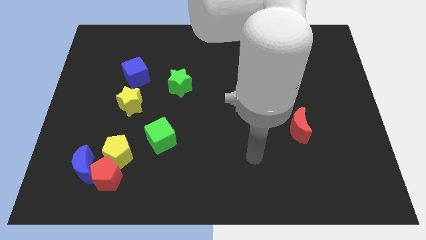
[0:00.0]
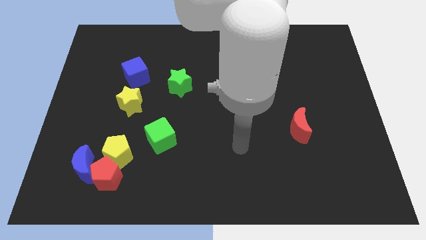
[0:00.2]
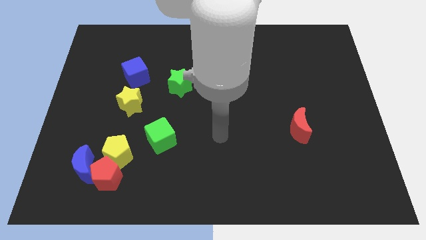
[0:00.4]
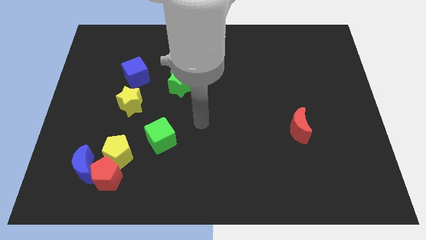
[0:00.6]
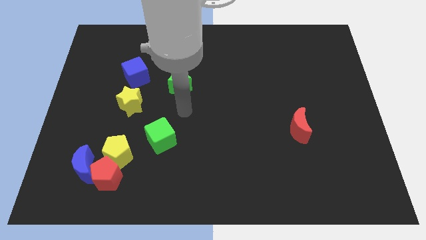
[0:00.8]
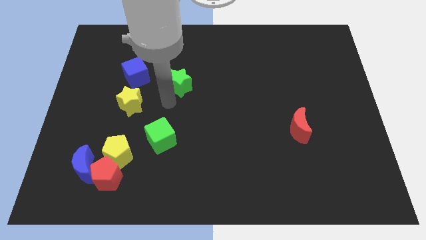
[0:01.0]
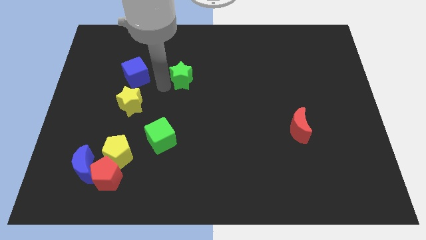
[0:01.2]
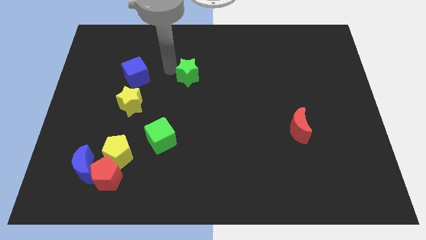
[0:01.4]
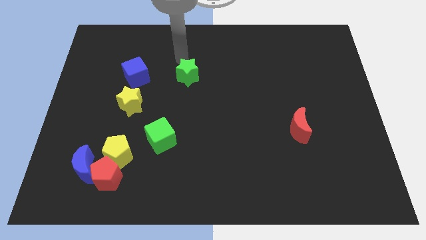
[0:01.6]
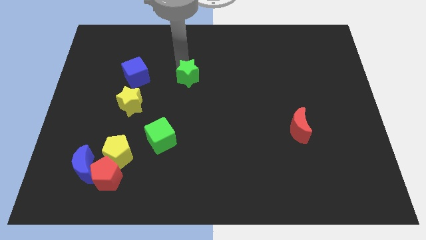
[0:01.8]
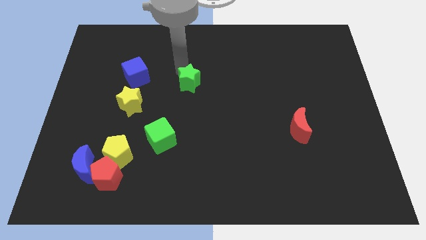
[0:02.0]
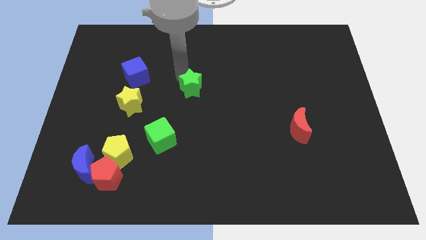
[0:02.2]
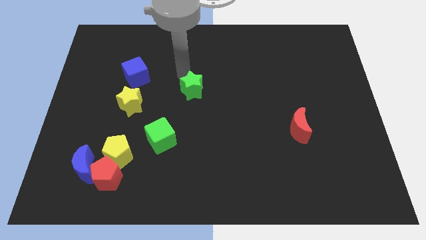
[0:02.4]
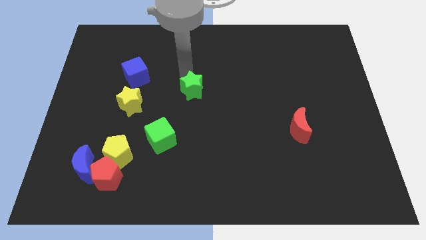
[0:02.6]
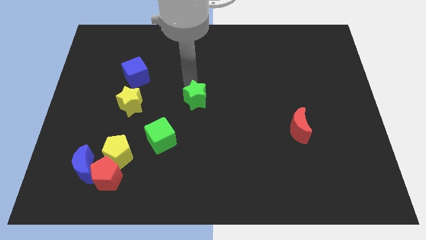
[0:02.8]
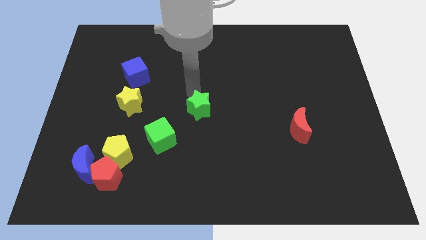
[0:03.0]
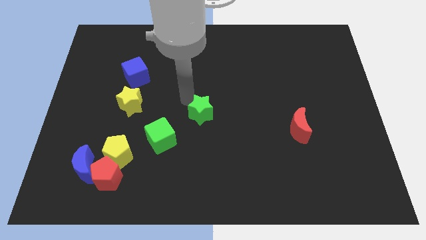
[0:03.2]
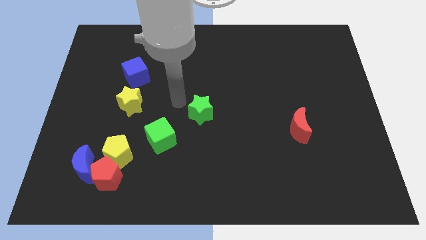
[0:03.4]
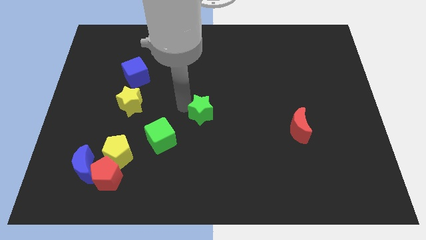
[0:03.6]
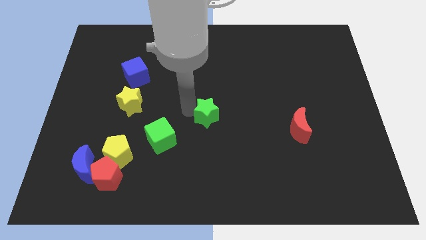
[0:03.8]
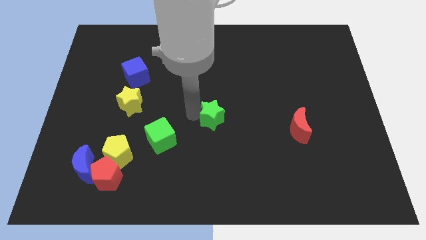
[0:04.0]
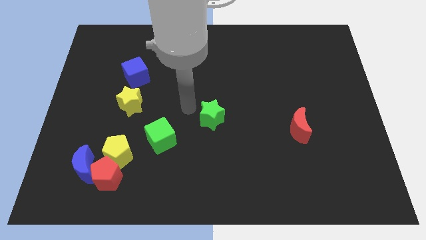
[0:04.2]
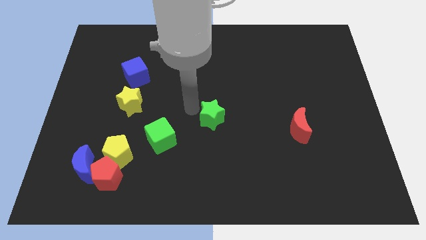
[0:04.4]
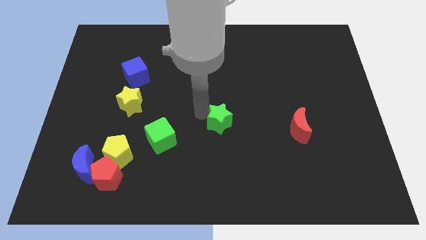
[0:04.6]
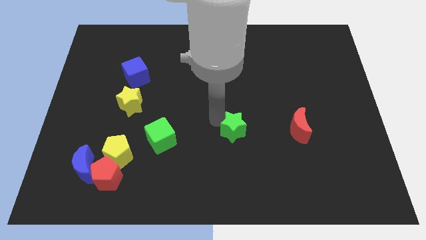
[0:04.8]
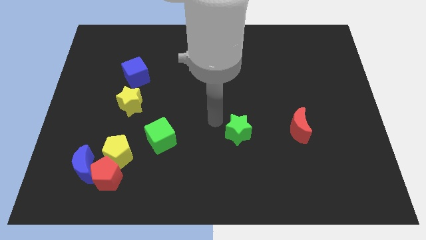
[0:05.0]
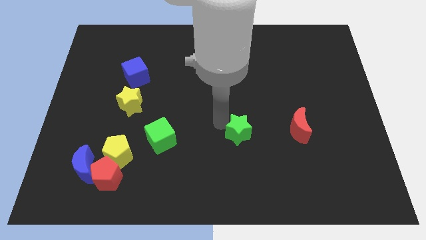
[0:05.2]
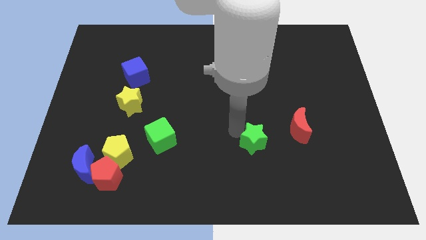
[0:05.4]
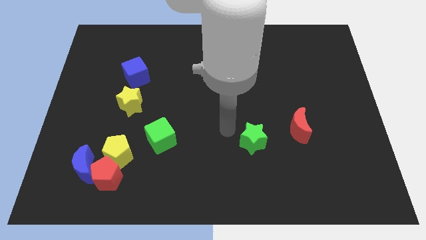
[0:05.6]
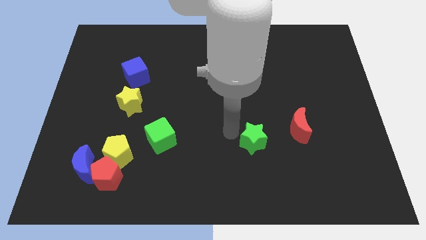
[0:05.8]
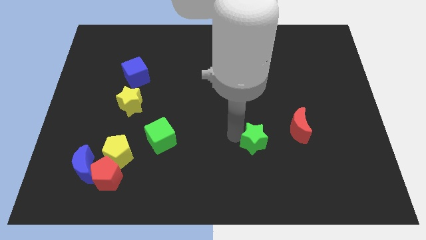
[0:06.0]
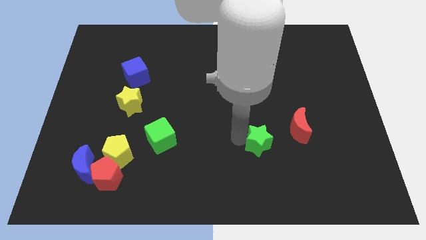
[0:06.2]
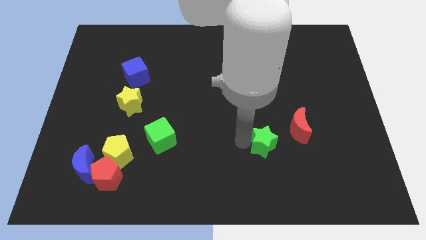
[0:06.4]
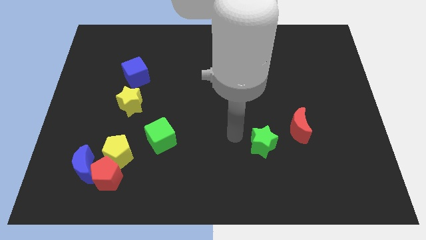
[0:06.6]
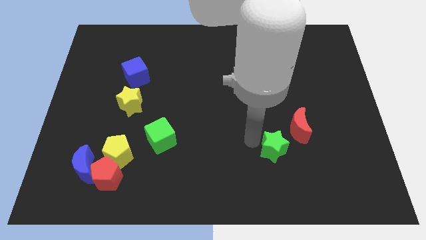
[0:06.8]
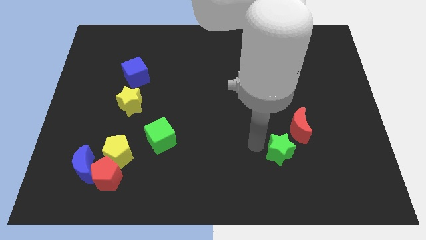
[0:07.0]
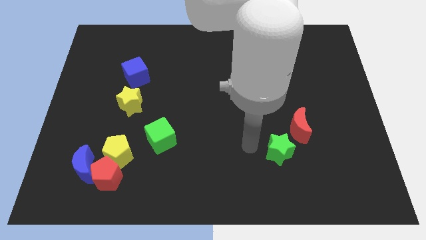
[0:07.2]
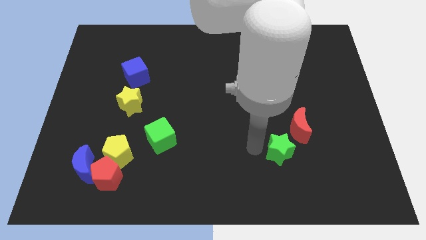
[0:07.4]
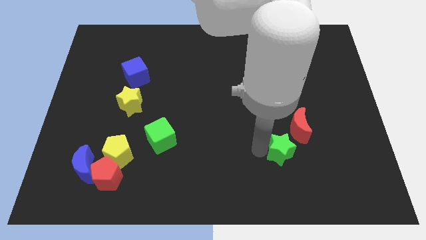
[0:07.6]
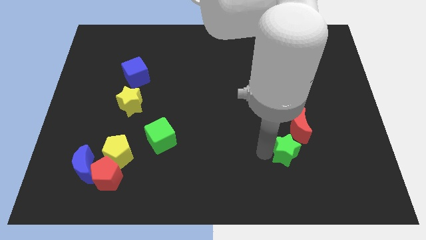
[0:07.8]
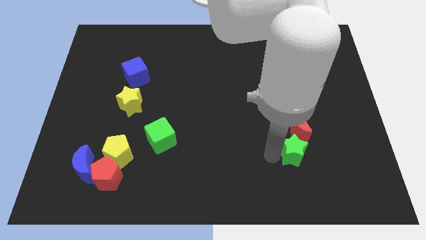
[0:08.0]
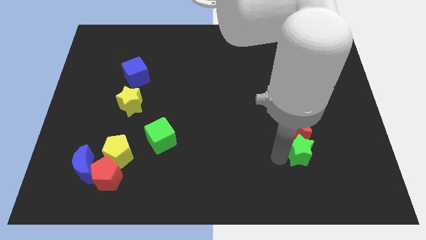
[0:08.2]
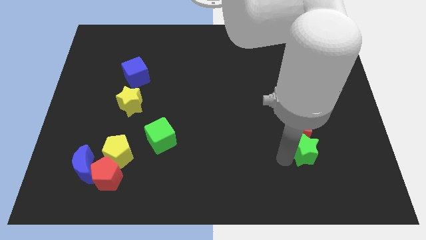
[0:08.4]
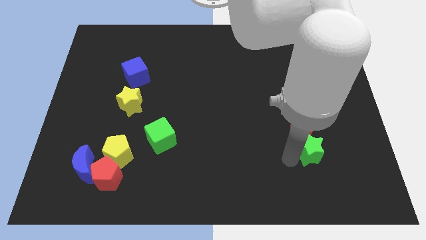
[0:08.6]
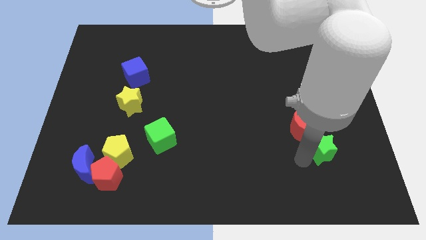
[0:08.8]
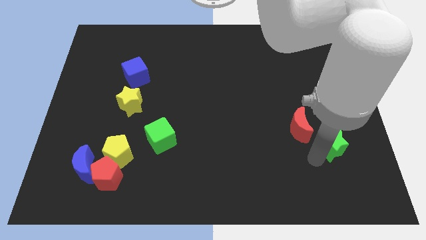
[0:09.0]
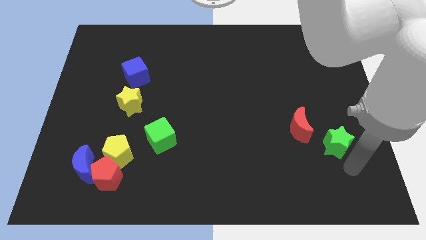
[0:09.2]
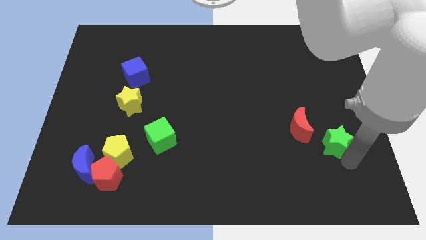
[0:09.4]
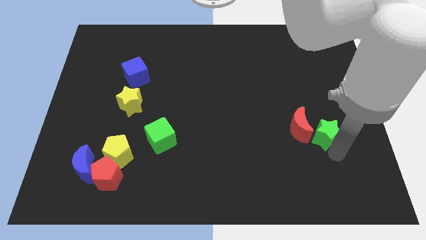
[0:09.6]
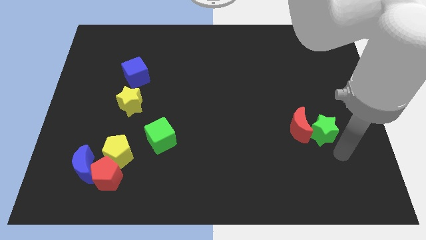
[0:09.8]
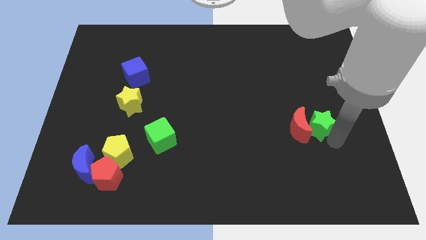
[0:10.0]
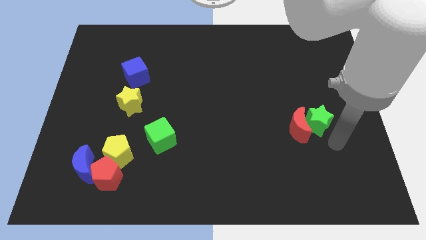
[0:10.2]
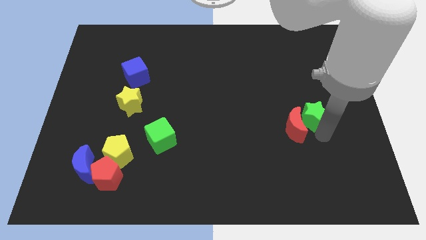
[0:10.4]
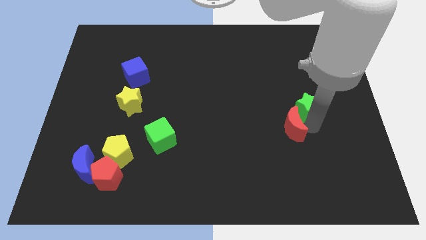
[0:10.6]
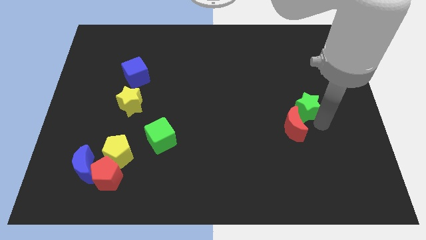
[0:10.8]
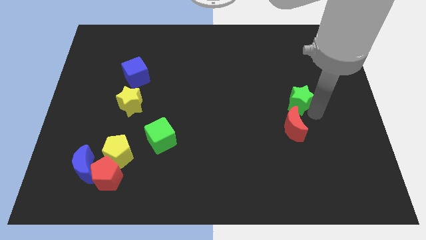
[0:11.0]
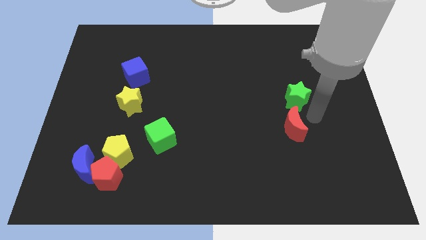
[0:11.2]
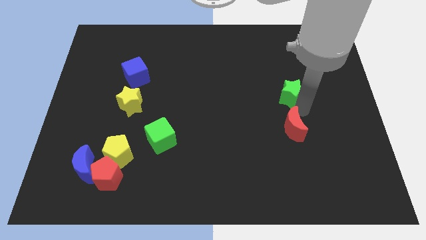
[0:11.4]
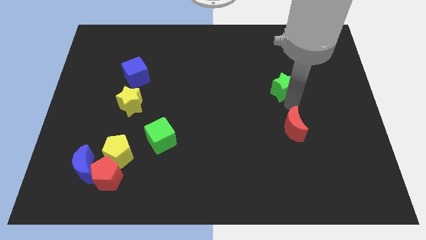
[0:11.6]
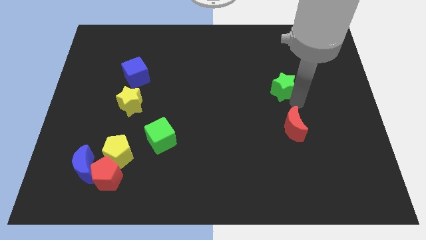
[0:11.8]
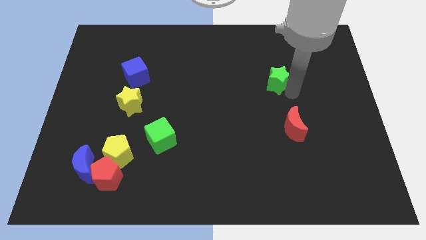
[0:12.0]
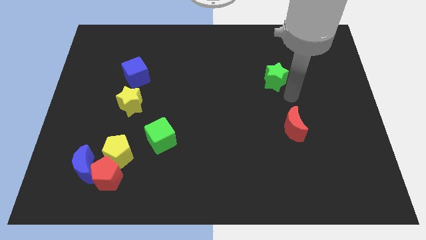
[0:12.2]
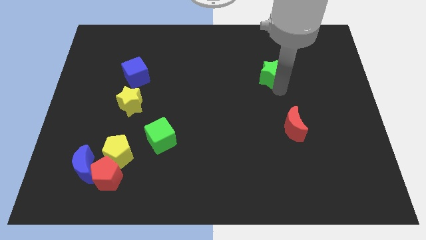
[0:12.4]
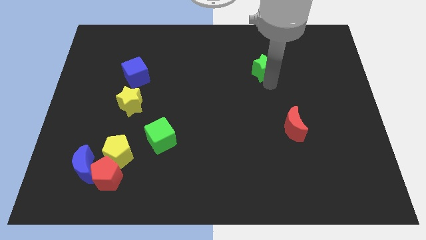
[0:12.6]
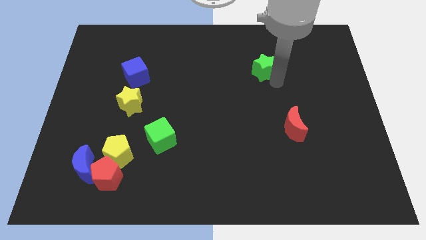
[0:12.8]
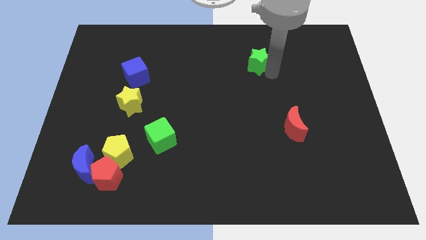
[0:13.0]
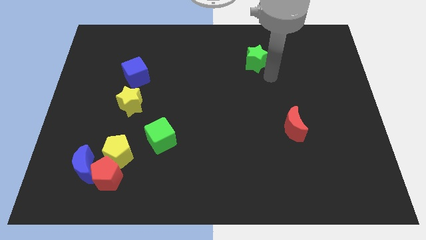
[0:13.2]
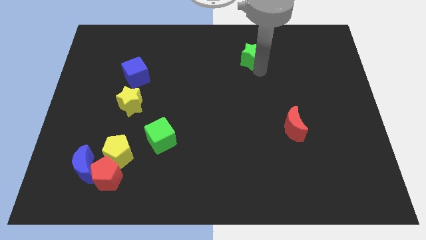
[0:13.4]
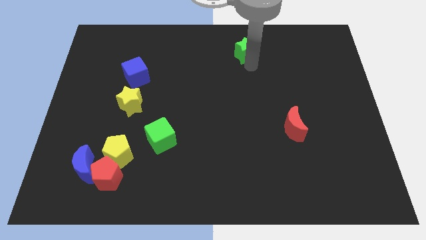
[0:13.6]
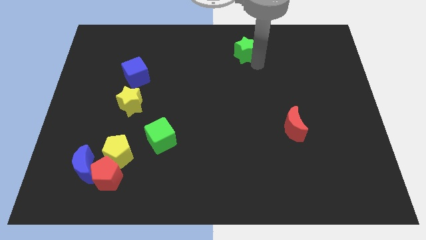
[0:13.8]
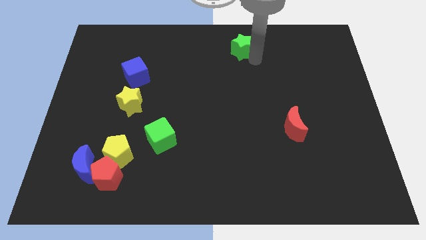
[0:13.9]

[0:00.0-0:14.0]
push the green star to the towards your base
